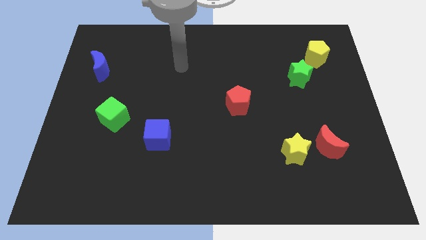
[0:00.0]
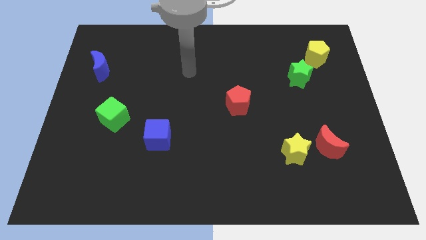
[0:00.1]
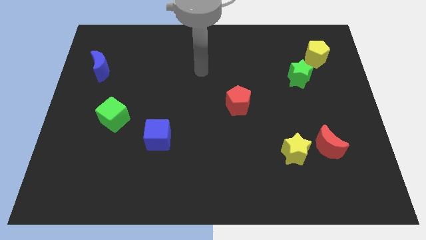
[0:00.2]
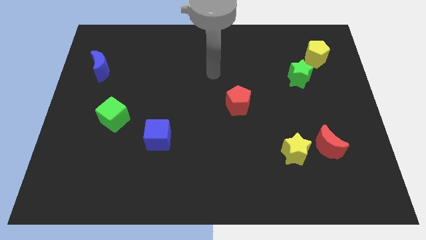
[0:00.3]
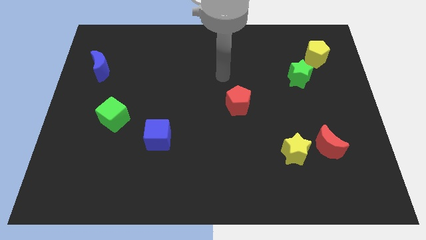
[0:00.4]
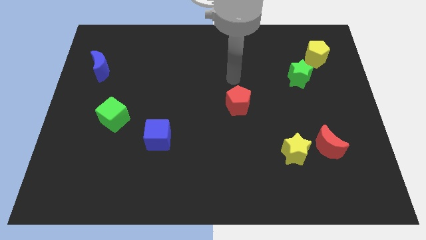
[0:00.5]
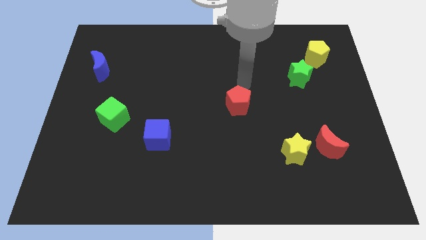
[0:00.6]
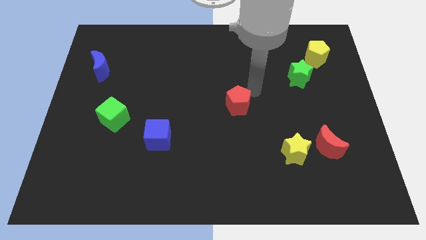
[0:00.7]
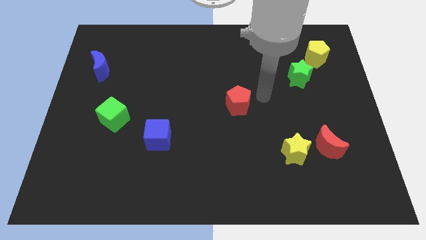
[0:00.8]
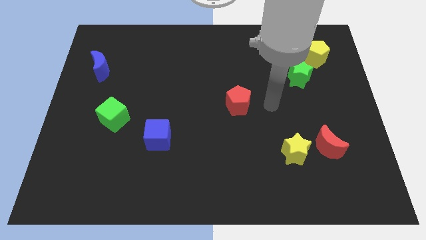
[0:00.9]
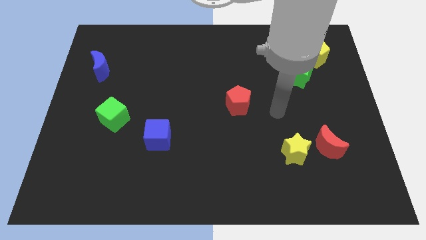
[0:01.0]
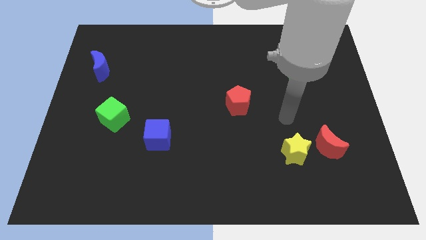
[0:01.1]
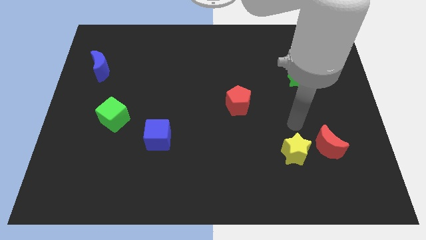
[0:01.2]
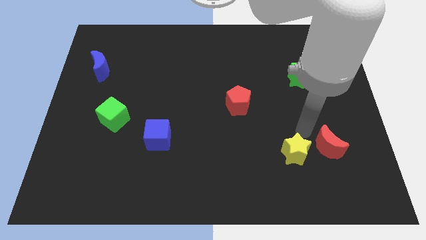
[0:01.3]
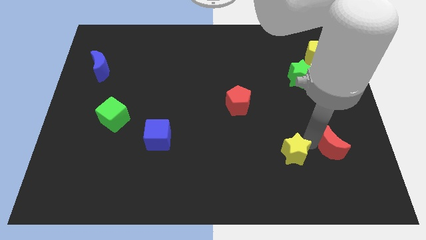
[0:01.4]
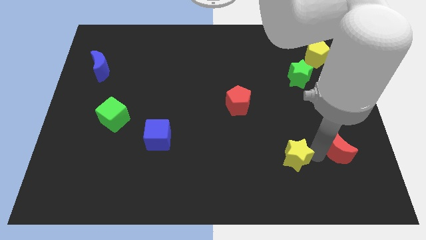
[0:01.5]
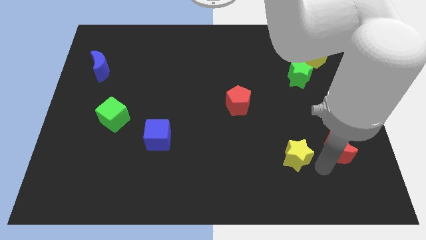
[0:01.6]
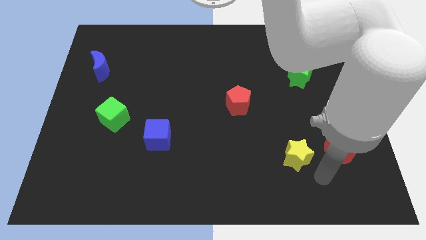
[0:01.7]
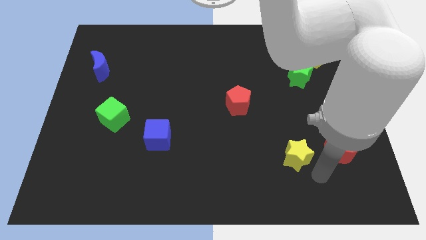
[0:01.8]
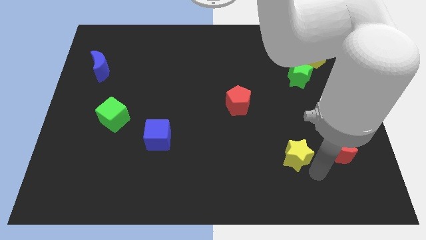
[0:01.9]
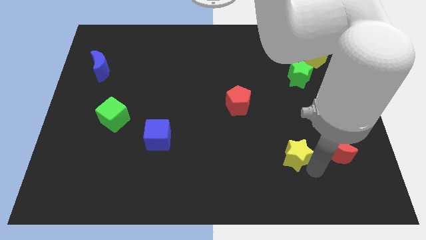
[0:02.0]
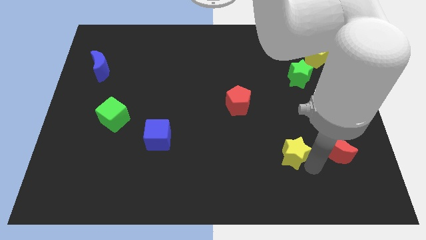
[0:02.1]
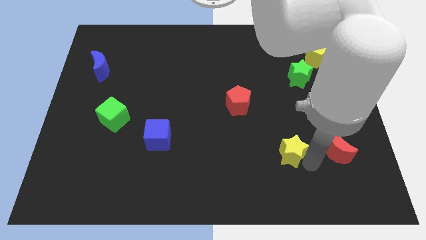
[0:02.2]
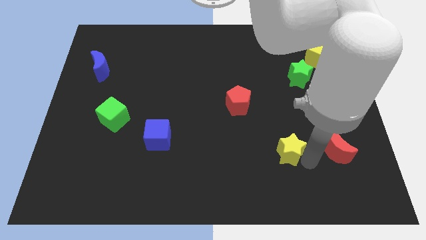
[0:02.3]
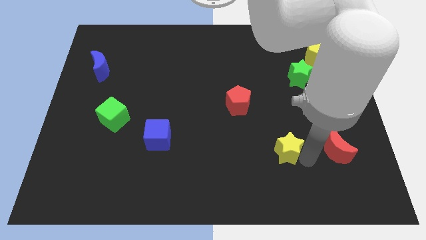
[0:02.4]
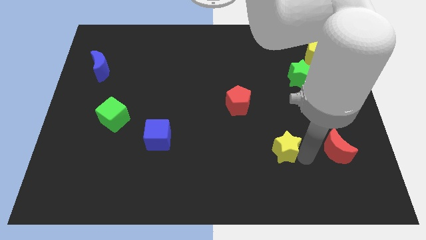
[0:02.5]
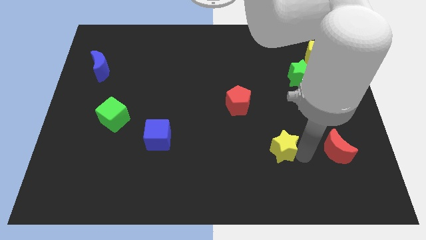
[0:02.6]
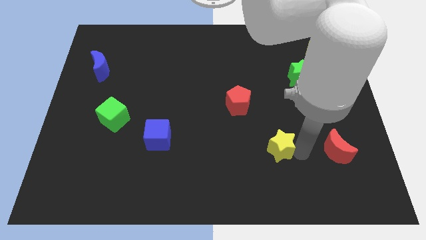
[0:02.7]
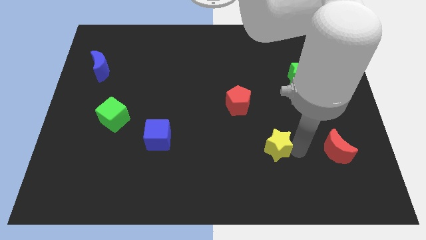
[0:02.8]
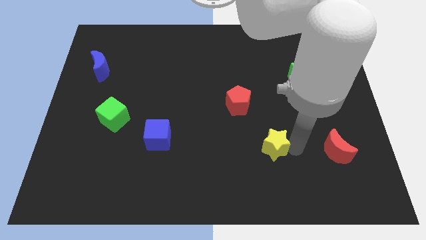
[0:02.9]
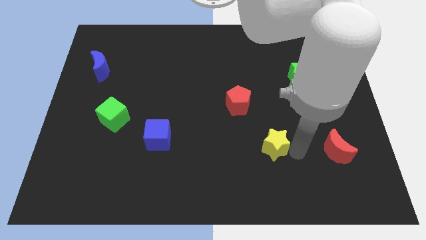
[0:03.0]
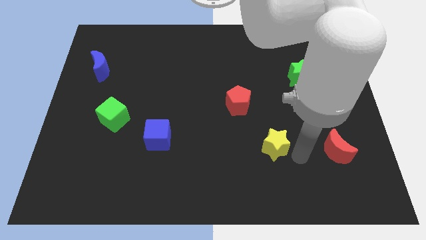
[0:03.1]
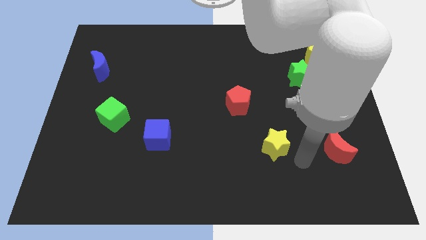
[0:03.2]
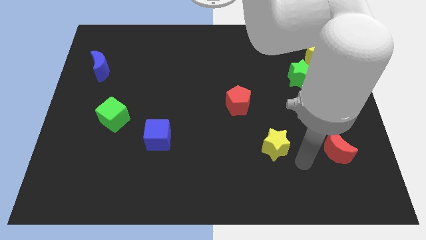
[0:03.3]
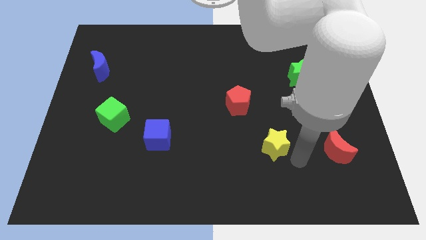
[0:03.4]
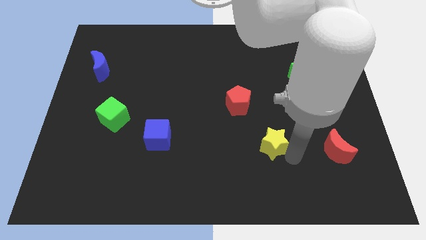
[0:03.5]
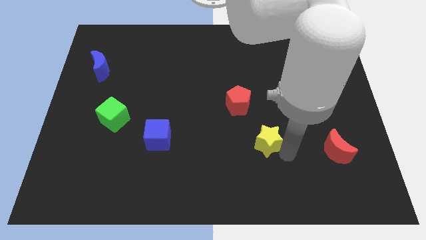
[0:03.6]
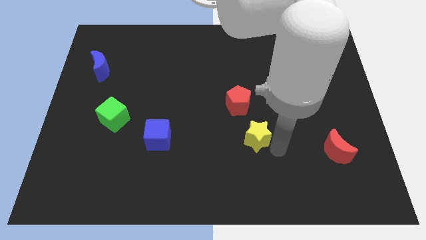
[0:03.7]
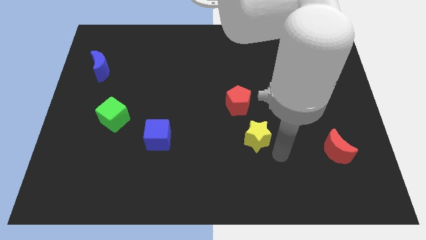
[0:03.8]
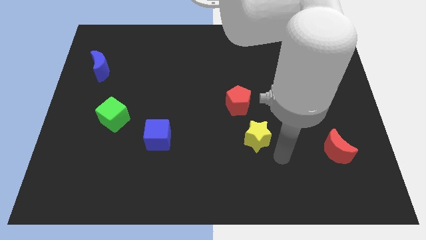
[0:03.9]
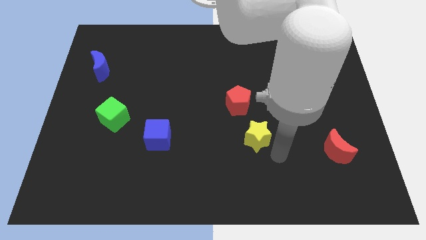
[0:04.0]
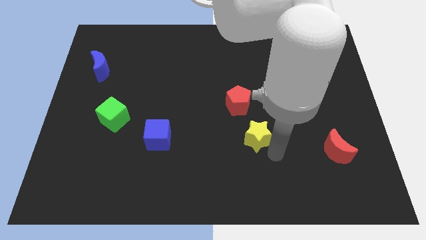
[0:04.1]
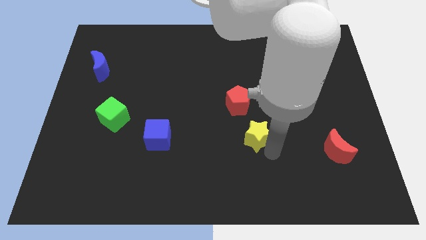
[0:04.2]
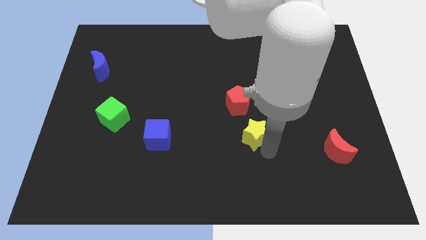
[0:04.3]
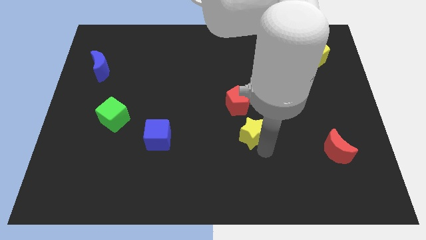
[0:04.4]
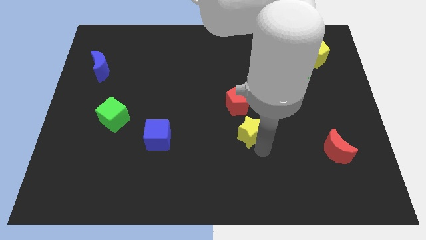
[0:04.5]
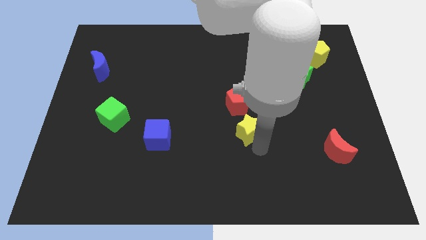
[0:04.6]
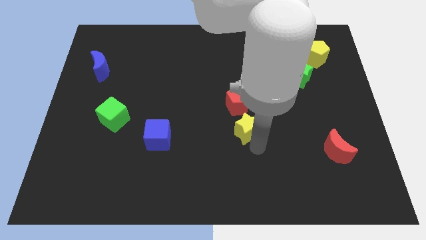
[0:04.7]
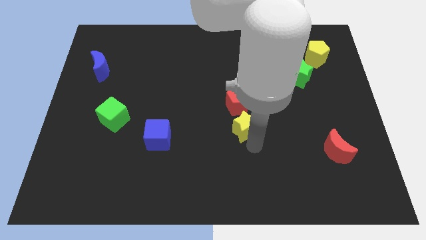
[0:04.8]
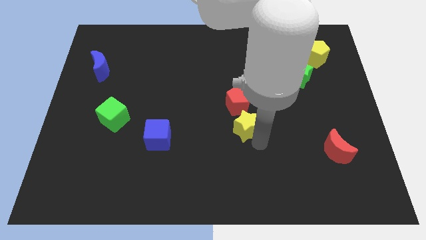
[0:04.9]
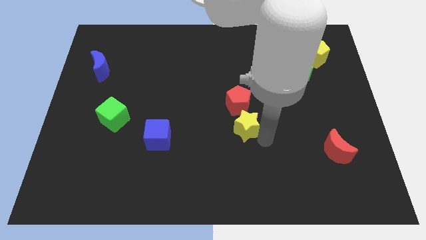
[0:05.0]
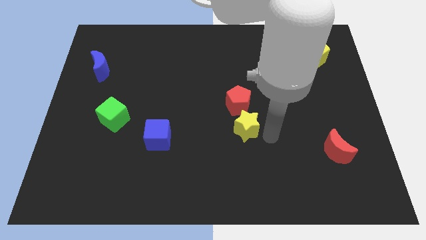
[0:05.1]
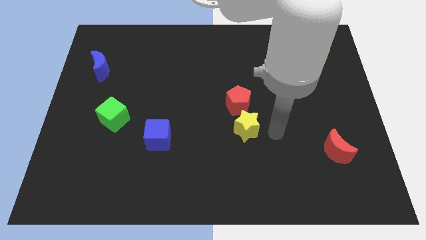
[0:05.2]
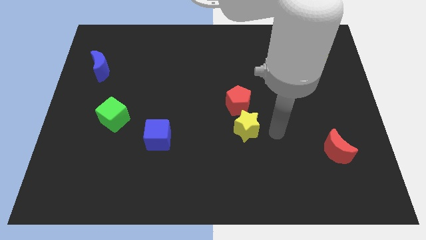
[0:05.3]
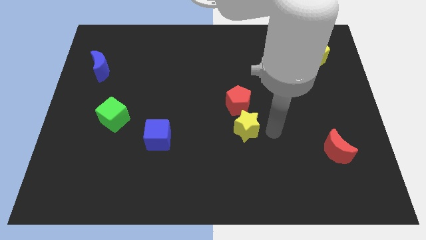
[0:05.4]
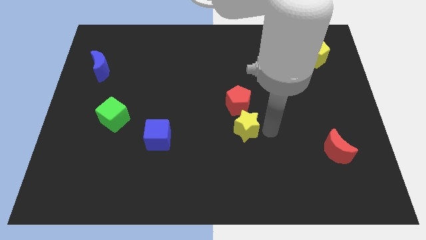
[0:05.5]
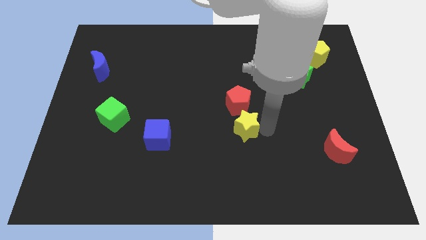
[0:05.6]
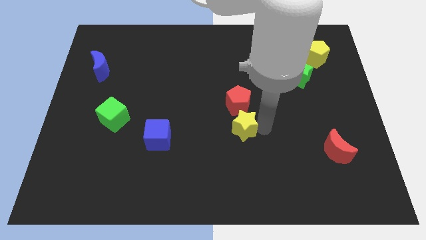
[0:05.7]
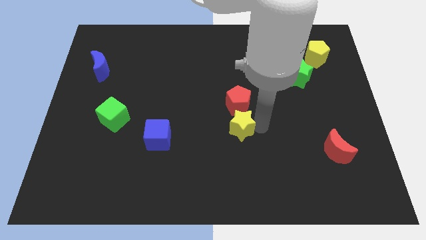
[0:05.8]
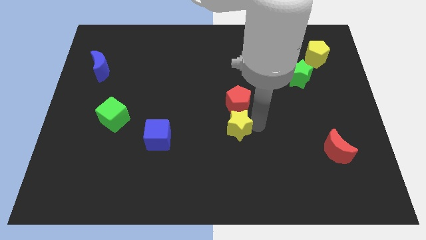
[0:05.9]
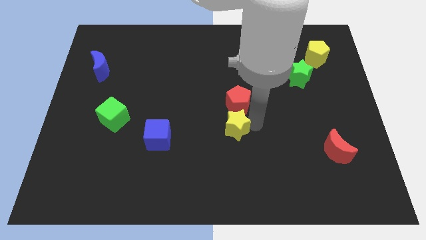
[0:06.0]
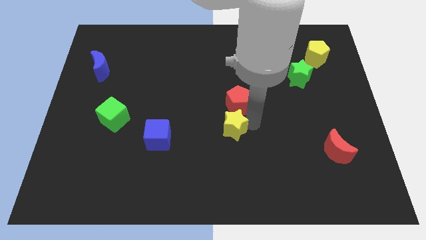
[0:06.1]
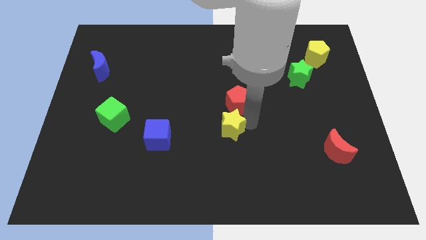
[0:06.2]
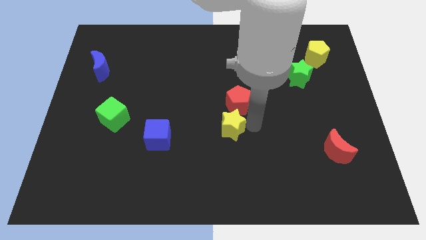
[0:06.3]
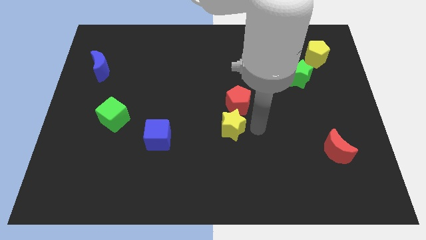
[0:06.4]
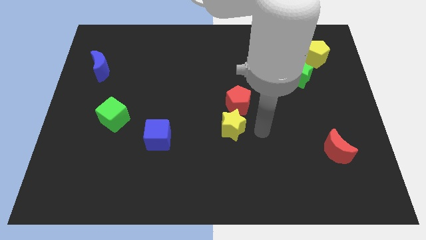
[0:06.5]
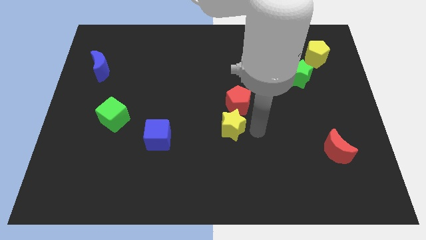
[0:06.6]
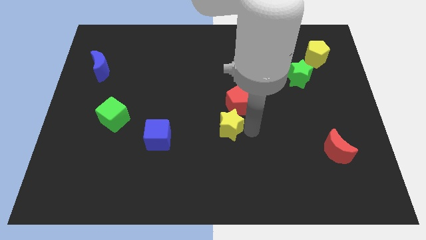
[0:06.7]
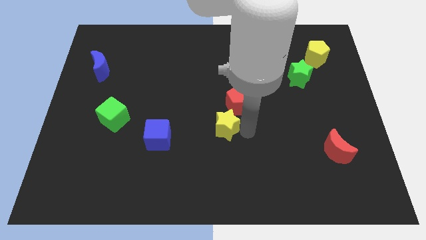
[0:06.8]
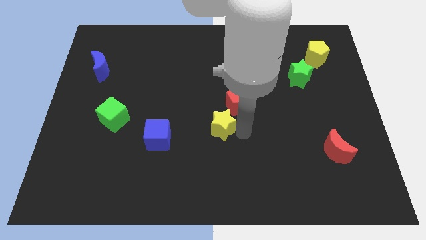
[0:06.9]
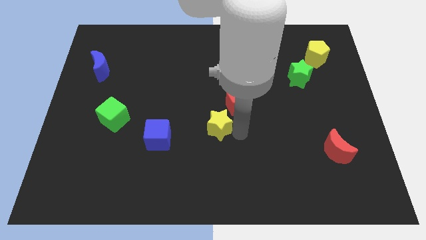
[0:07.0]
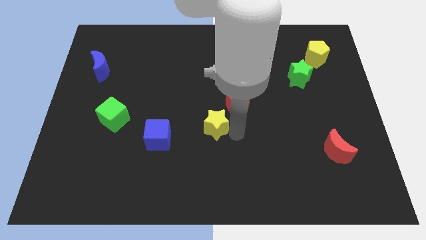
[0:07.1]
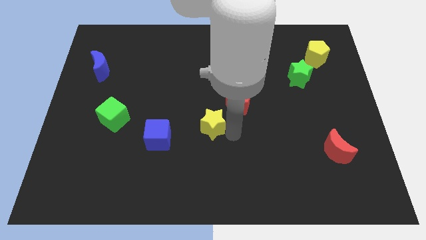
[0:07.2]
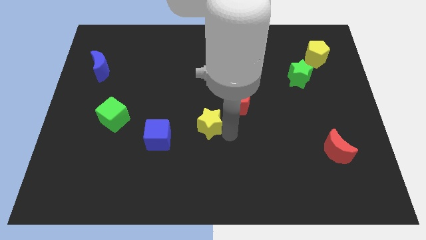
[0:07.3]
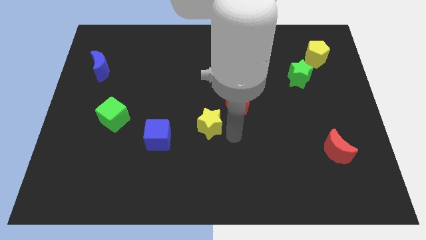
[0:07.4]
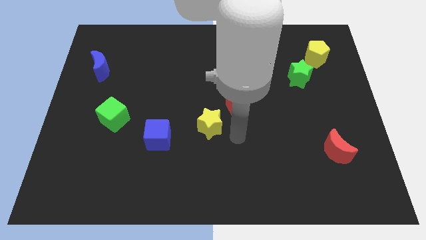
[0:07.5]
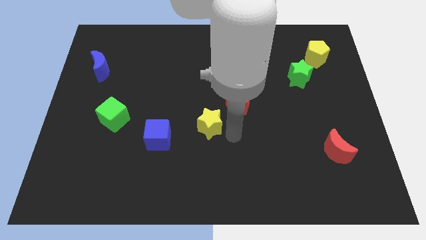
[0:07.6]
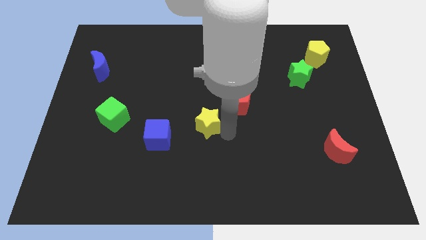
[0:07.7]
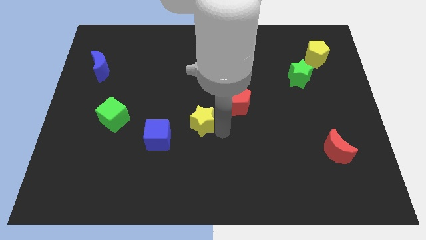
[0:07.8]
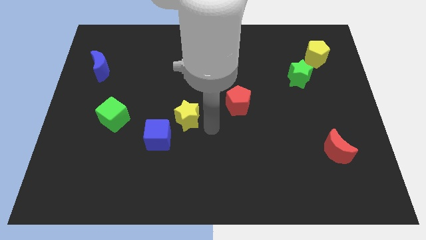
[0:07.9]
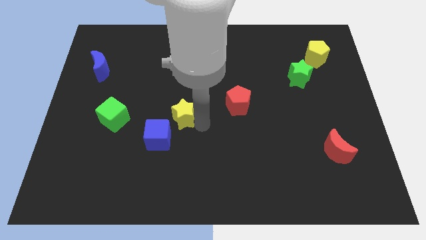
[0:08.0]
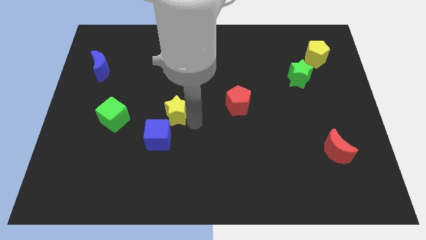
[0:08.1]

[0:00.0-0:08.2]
slide the yellow star to the top of the blue cube
